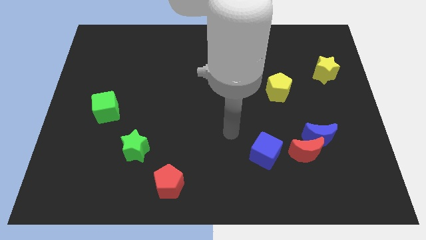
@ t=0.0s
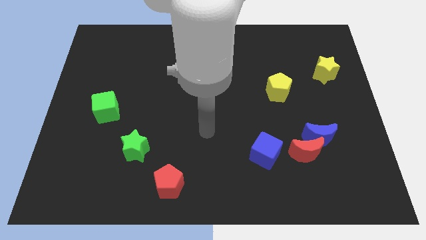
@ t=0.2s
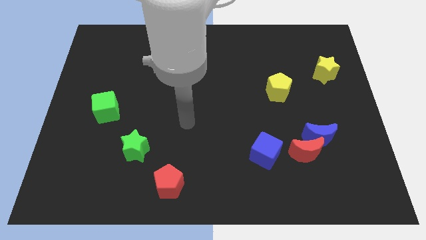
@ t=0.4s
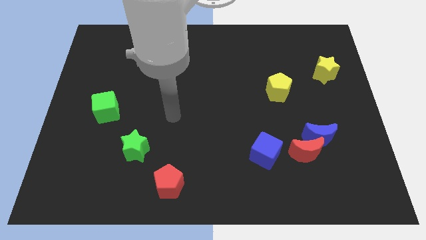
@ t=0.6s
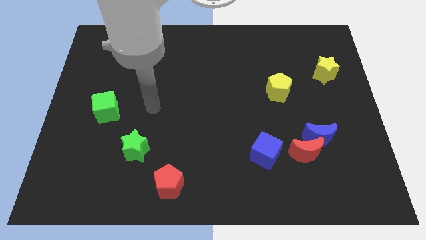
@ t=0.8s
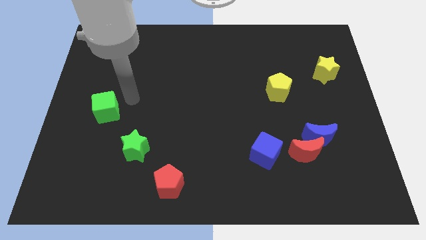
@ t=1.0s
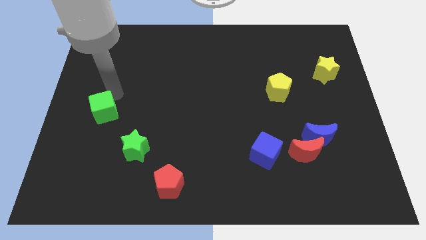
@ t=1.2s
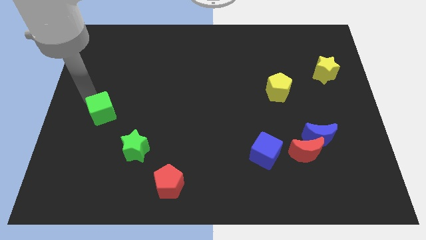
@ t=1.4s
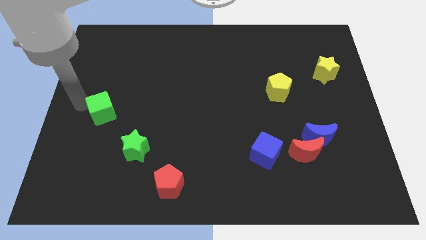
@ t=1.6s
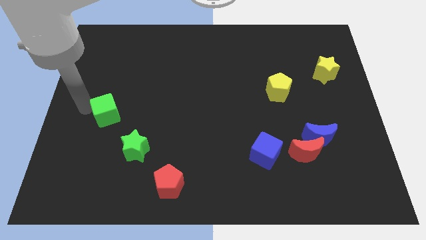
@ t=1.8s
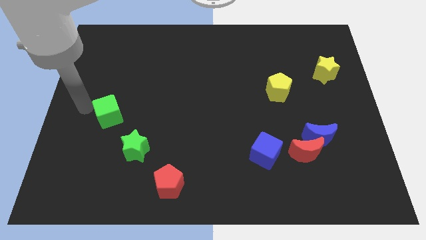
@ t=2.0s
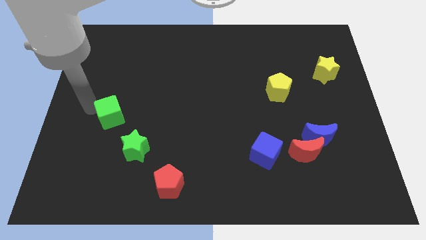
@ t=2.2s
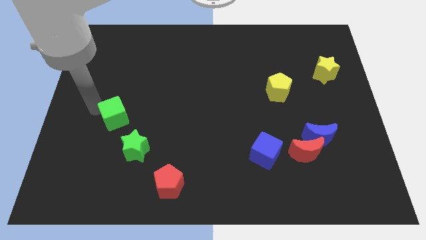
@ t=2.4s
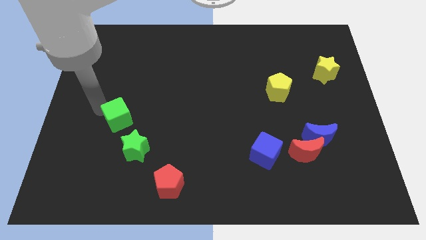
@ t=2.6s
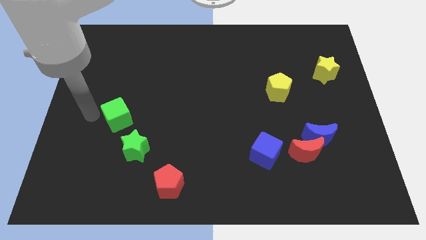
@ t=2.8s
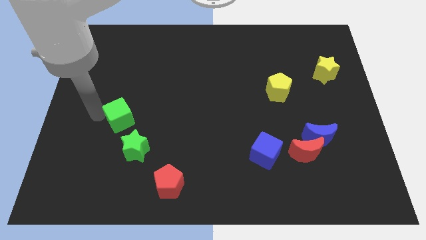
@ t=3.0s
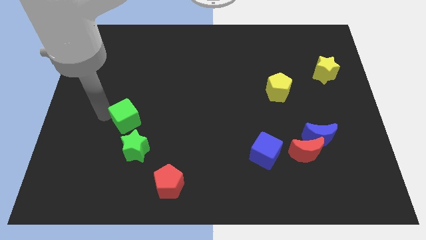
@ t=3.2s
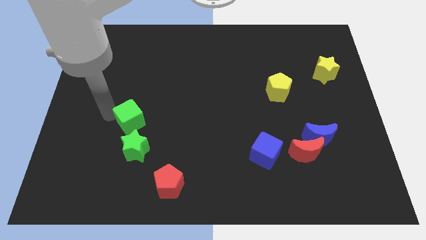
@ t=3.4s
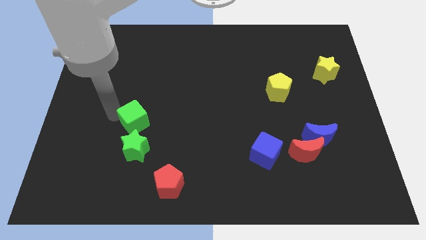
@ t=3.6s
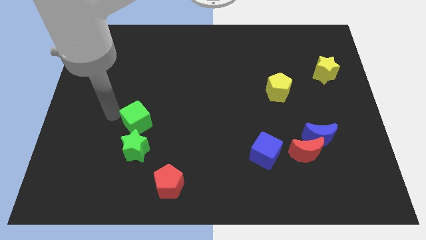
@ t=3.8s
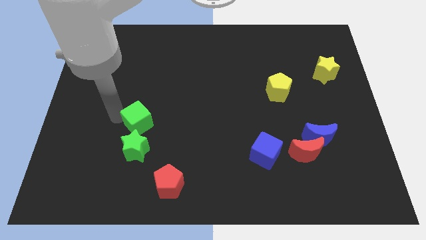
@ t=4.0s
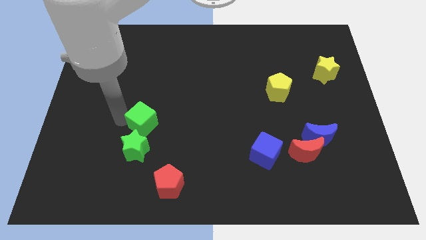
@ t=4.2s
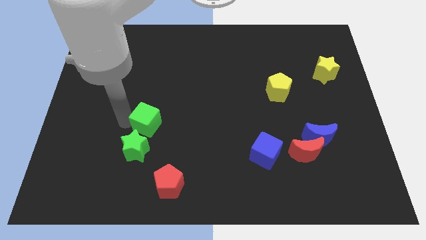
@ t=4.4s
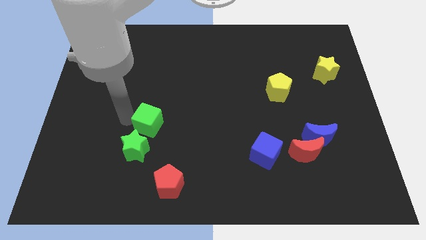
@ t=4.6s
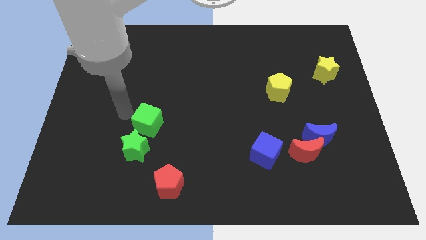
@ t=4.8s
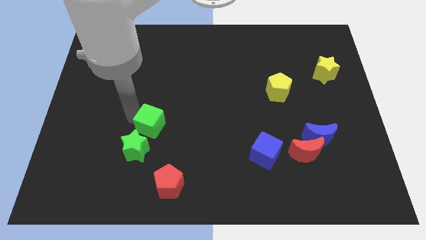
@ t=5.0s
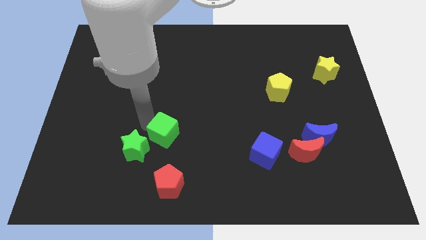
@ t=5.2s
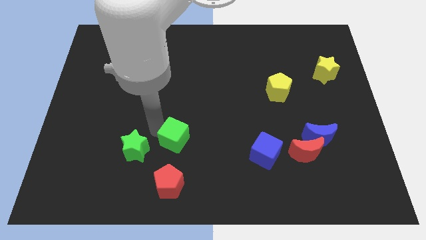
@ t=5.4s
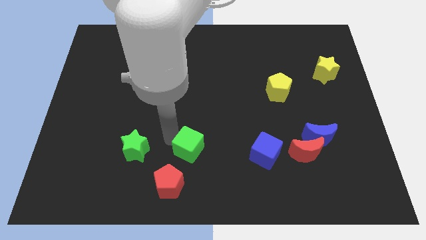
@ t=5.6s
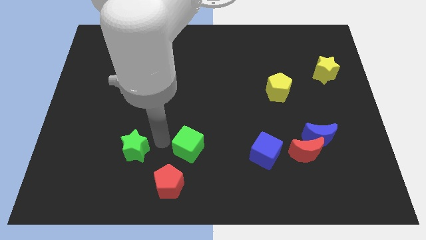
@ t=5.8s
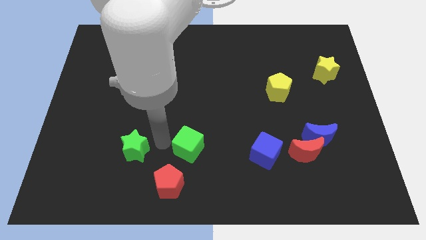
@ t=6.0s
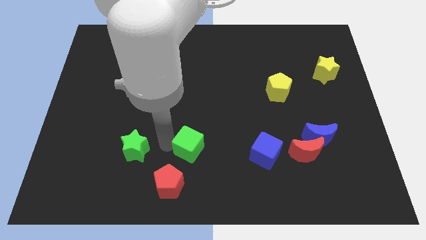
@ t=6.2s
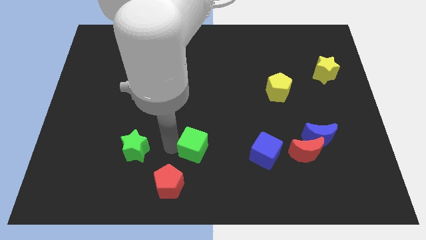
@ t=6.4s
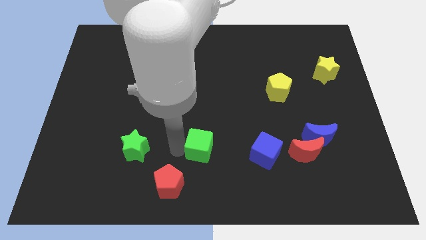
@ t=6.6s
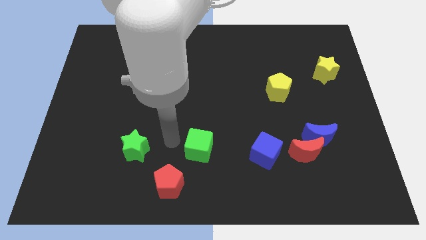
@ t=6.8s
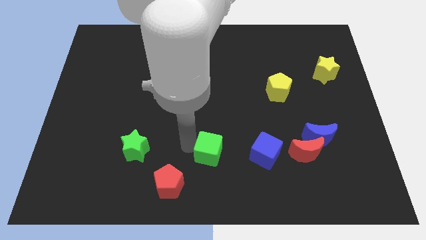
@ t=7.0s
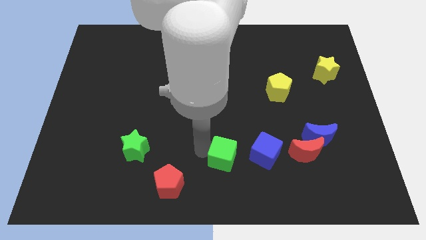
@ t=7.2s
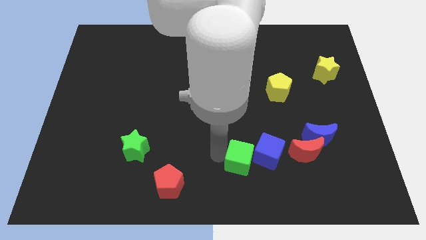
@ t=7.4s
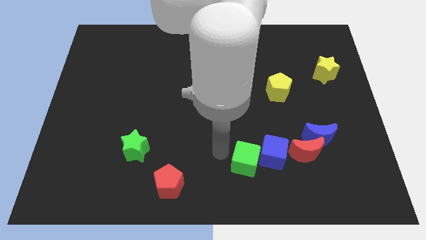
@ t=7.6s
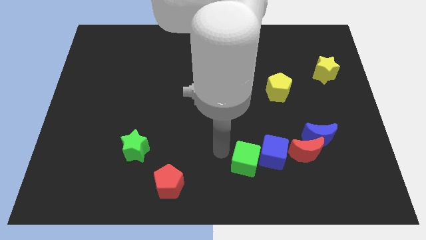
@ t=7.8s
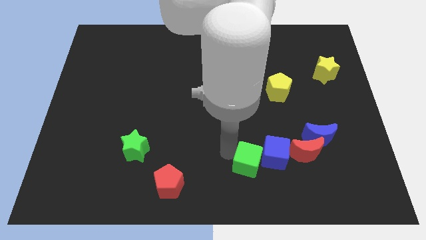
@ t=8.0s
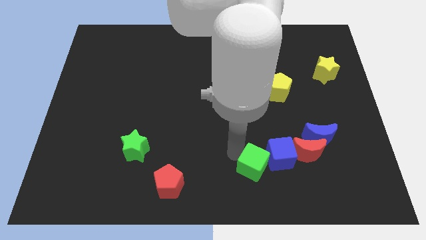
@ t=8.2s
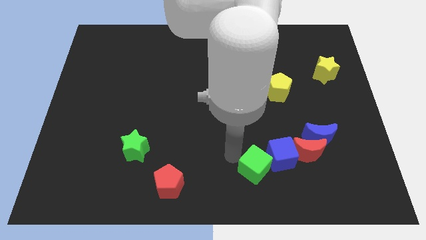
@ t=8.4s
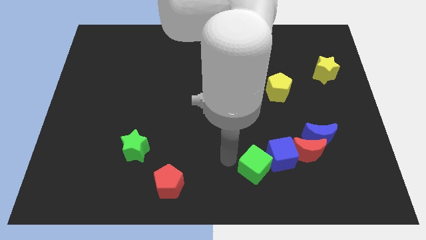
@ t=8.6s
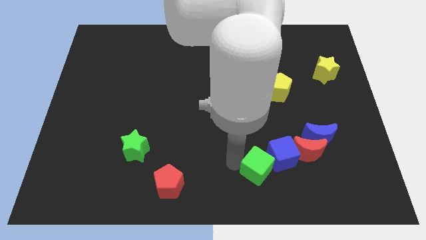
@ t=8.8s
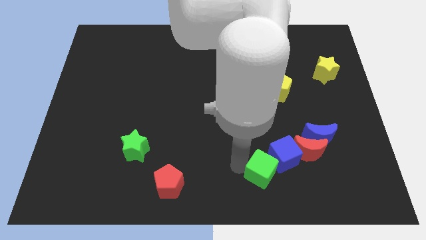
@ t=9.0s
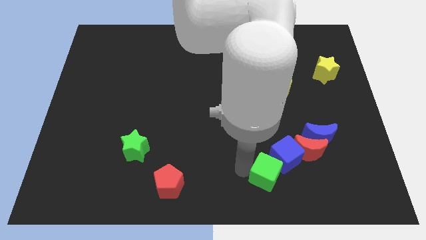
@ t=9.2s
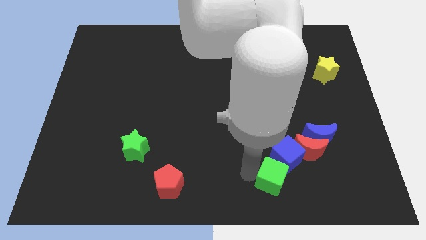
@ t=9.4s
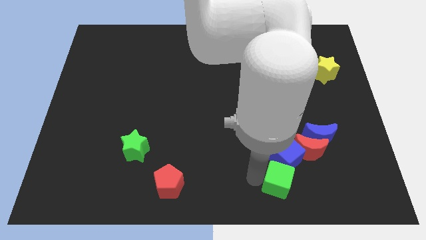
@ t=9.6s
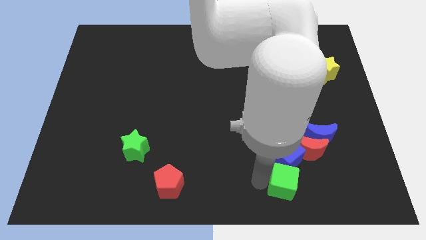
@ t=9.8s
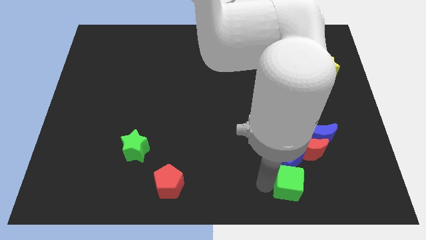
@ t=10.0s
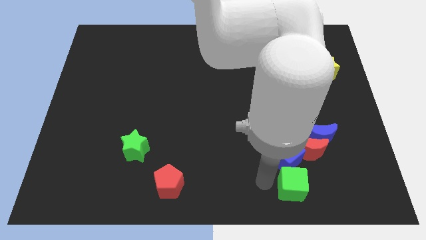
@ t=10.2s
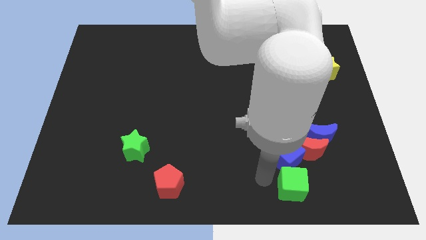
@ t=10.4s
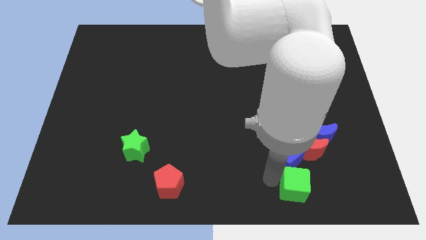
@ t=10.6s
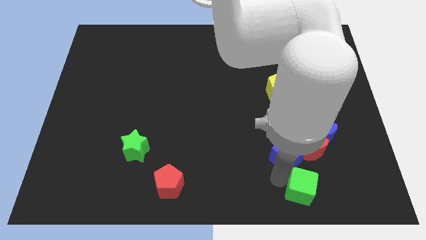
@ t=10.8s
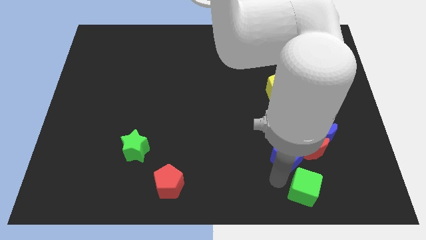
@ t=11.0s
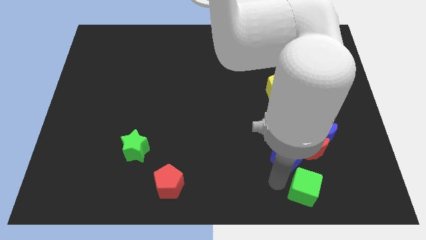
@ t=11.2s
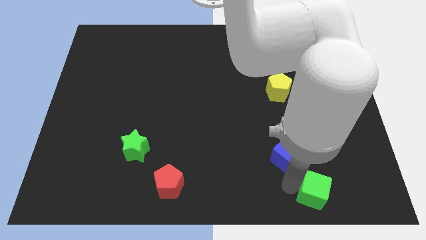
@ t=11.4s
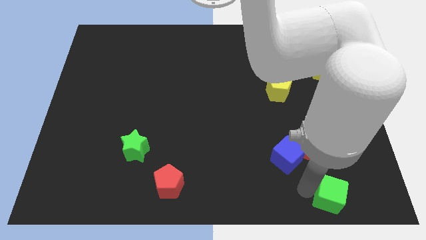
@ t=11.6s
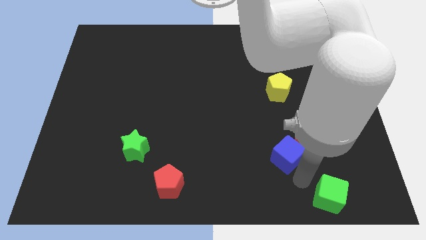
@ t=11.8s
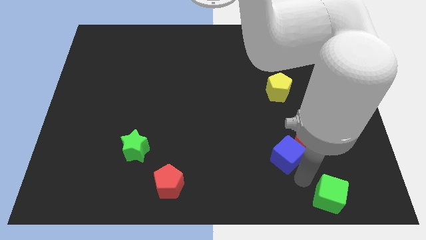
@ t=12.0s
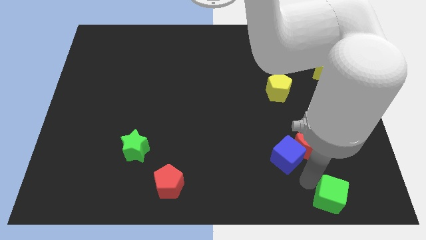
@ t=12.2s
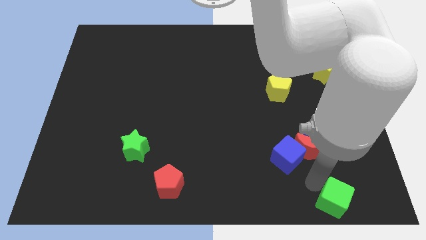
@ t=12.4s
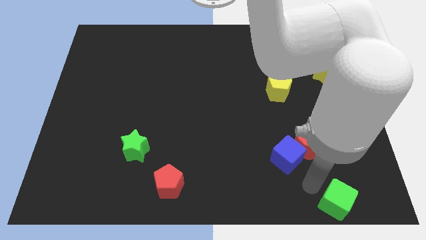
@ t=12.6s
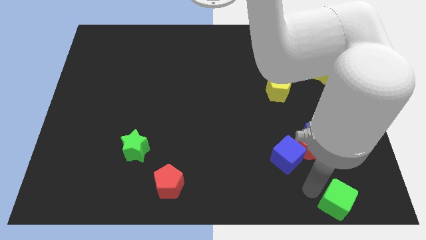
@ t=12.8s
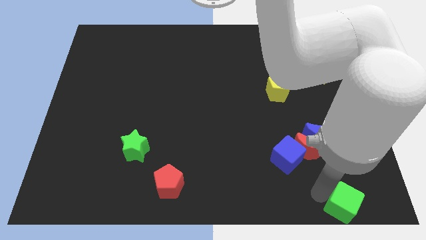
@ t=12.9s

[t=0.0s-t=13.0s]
slide the green cube to the bottom right corner
